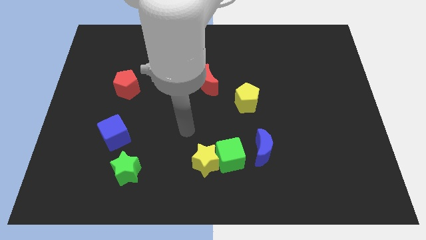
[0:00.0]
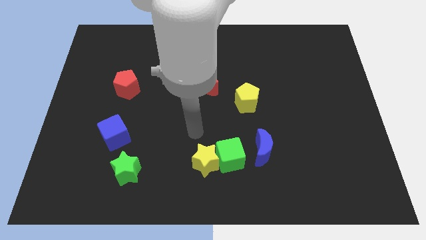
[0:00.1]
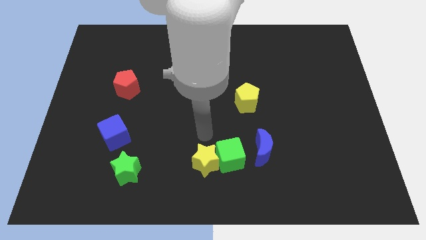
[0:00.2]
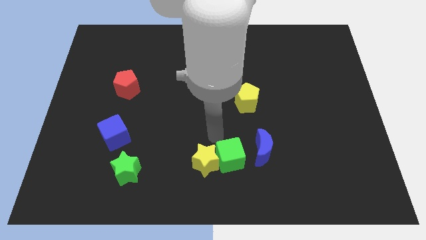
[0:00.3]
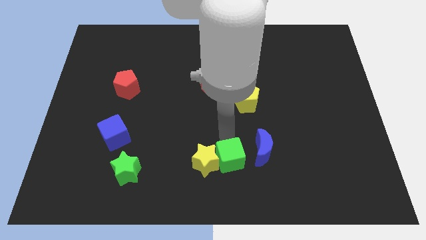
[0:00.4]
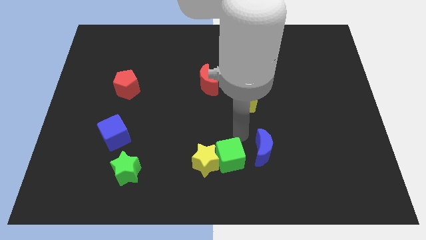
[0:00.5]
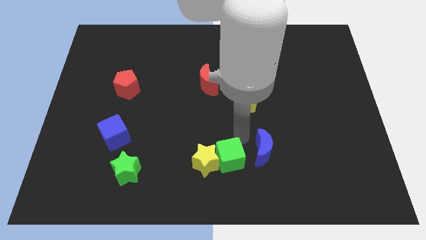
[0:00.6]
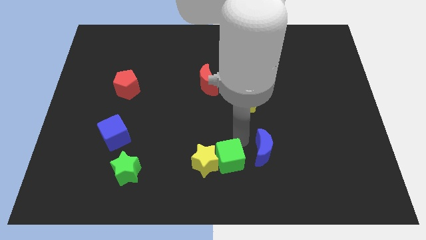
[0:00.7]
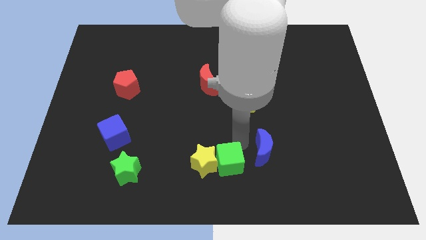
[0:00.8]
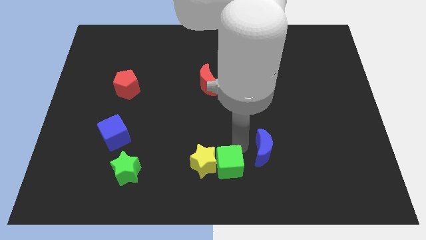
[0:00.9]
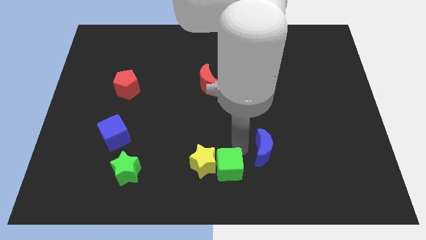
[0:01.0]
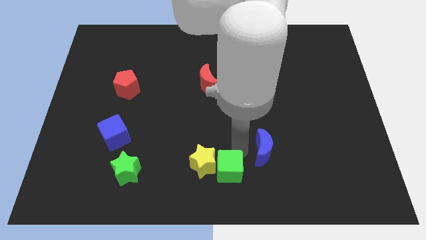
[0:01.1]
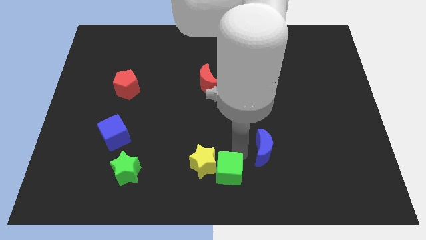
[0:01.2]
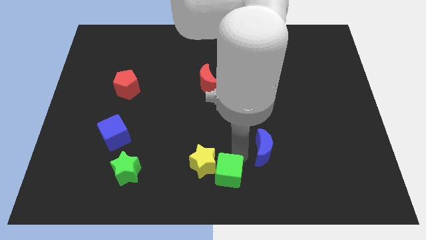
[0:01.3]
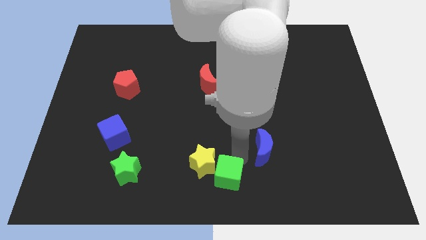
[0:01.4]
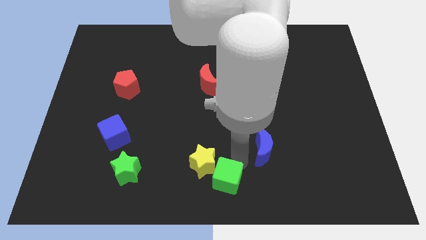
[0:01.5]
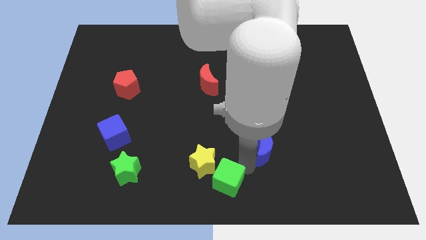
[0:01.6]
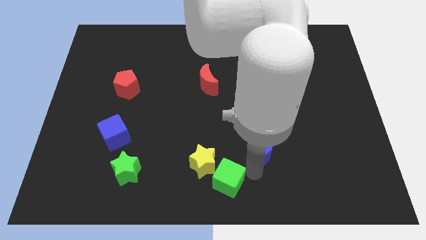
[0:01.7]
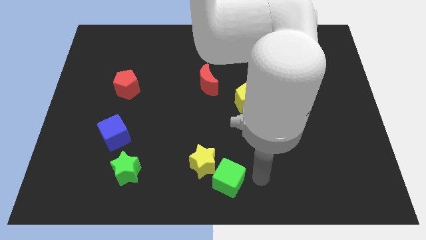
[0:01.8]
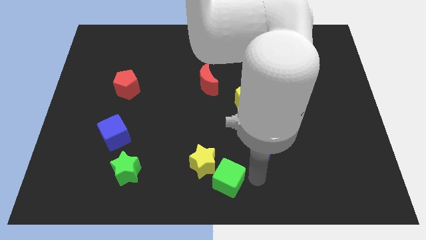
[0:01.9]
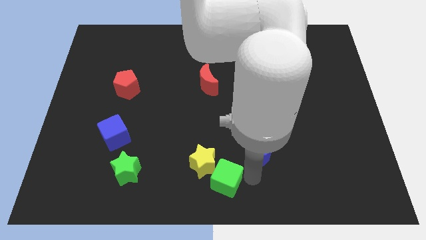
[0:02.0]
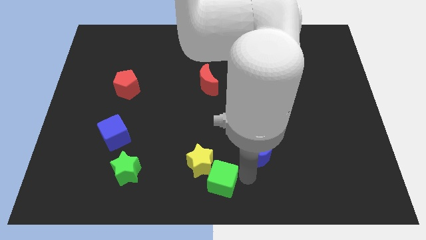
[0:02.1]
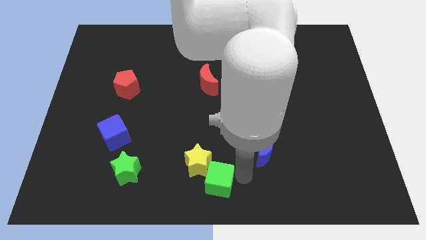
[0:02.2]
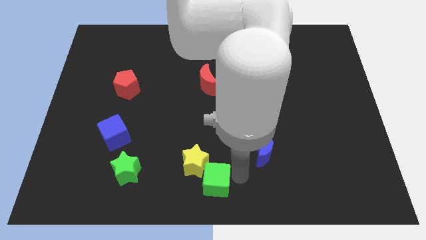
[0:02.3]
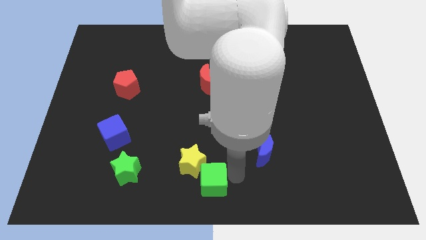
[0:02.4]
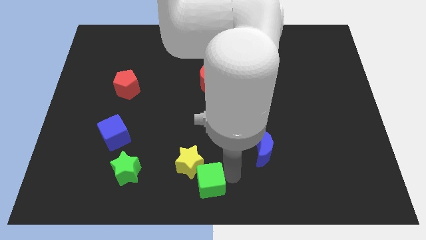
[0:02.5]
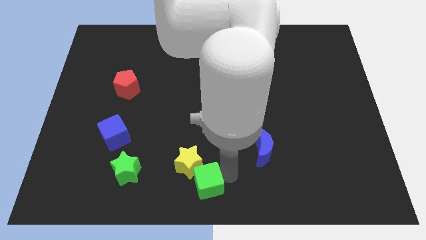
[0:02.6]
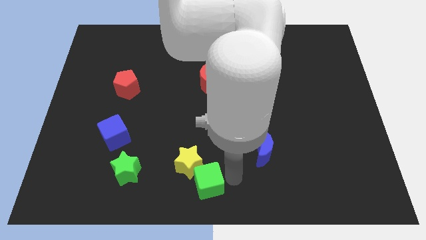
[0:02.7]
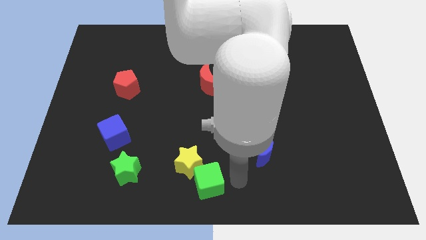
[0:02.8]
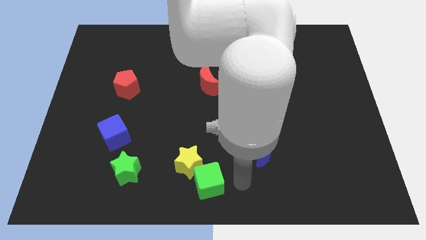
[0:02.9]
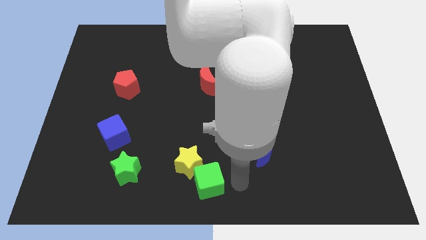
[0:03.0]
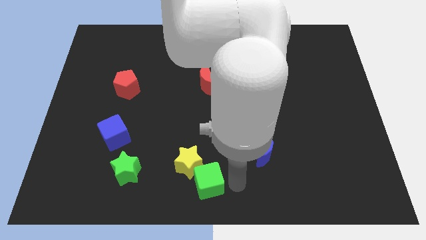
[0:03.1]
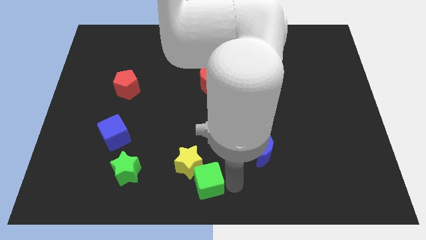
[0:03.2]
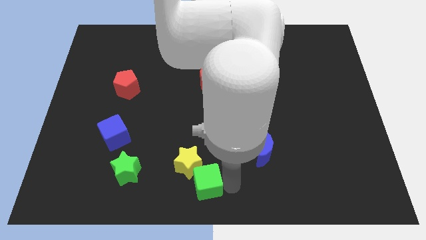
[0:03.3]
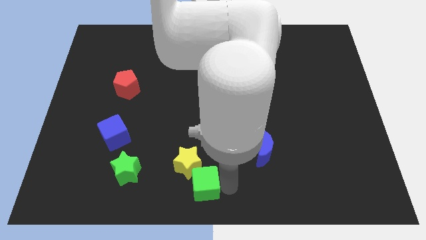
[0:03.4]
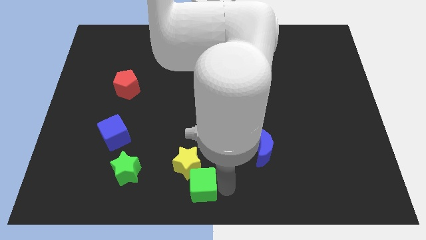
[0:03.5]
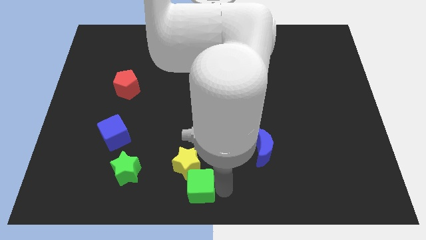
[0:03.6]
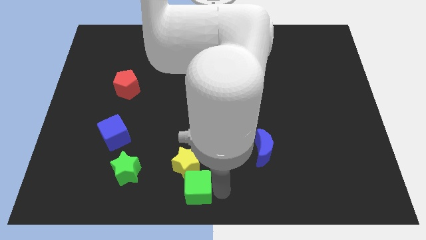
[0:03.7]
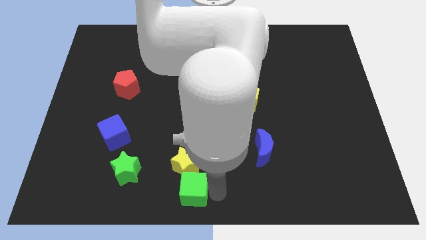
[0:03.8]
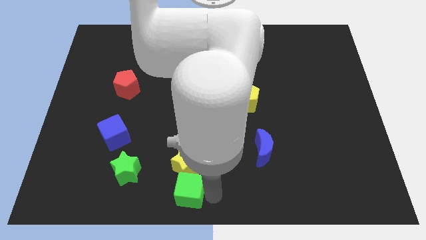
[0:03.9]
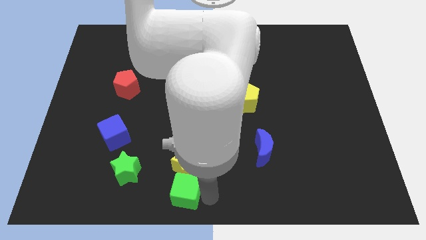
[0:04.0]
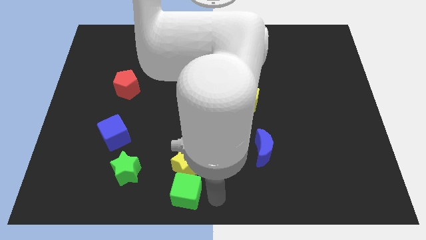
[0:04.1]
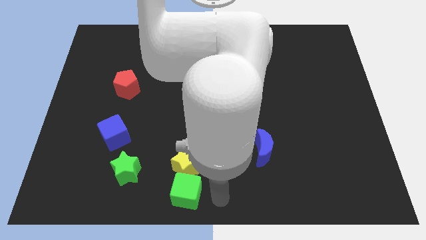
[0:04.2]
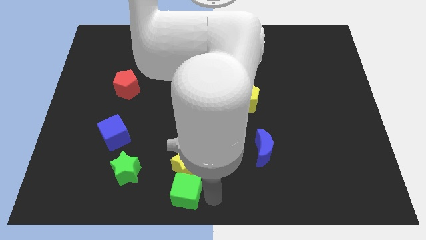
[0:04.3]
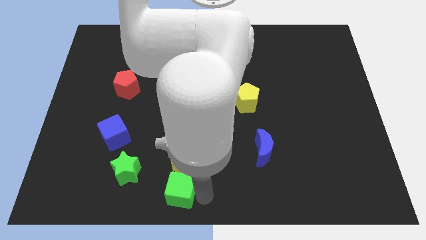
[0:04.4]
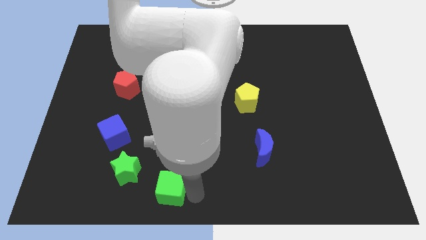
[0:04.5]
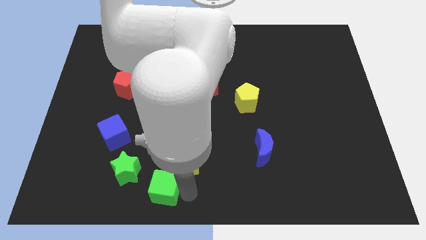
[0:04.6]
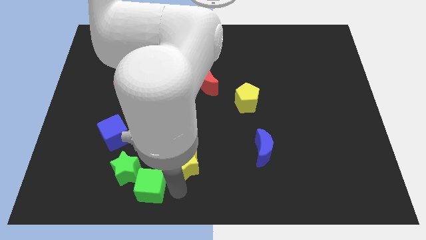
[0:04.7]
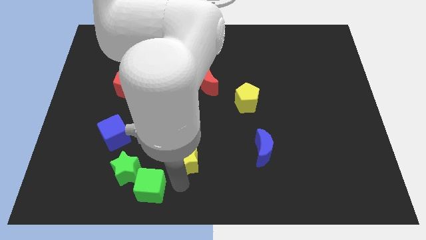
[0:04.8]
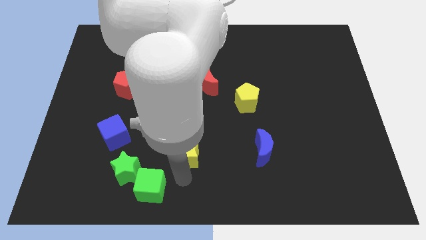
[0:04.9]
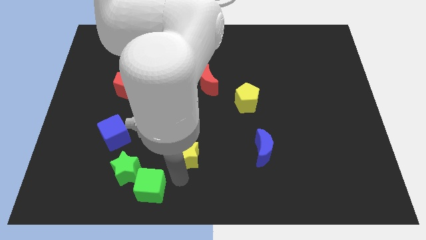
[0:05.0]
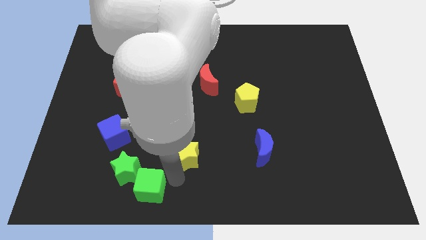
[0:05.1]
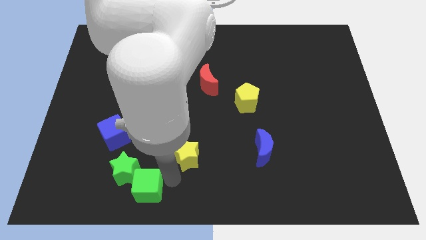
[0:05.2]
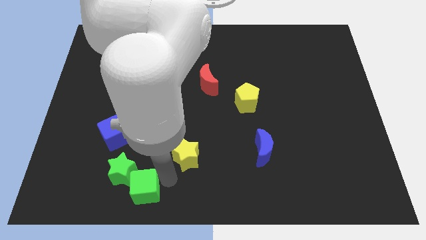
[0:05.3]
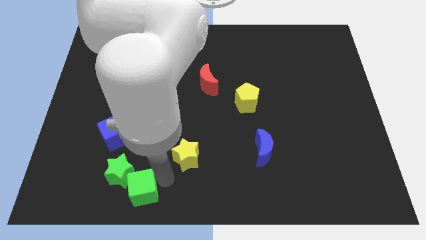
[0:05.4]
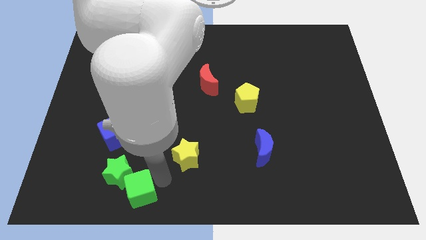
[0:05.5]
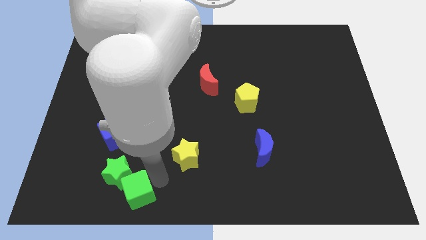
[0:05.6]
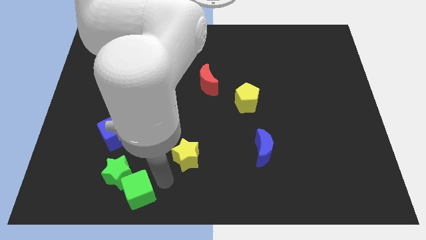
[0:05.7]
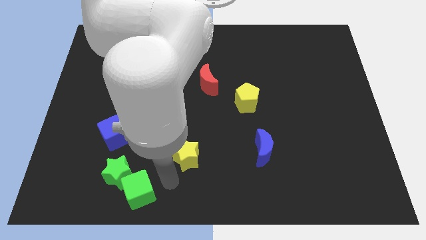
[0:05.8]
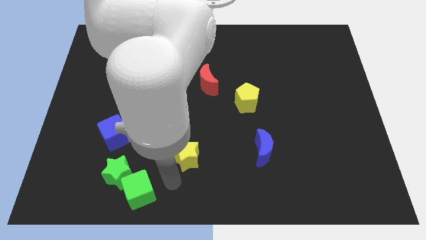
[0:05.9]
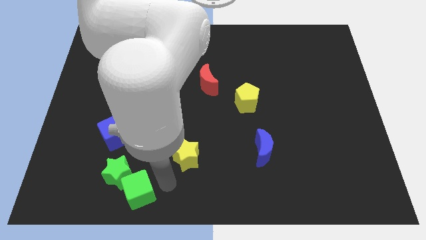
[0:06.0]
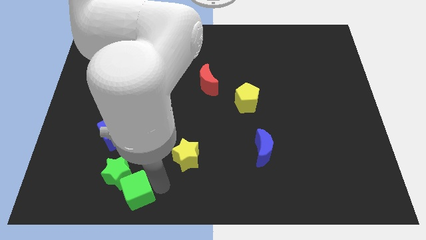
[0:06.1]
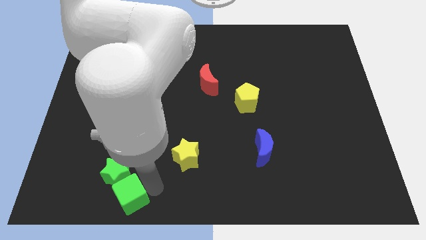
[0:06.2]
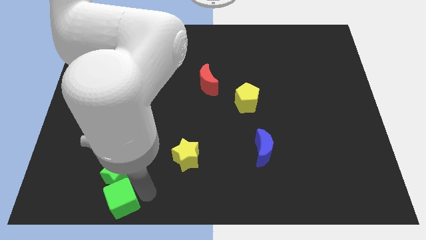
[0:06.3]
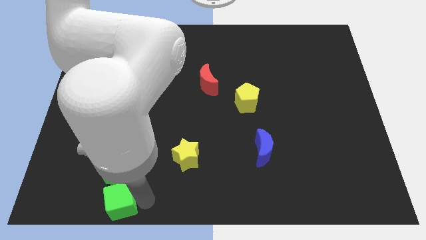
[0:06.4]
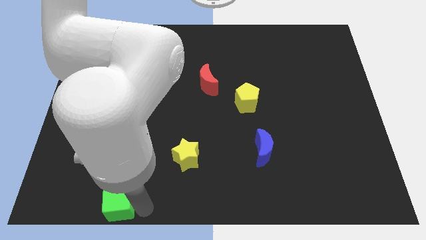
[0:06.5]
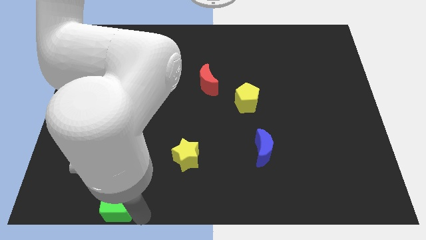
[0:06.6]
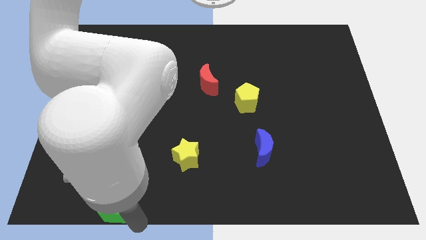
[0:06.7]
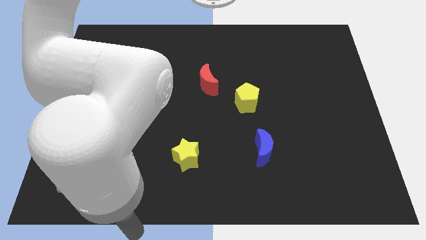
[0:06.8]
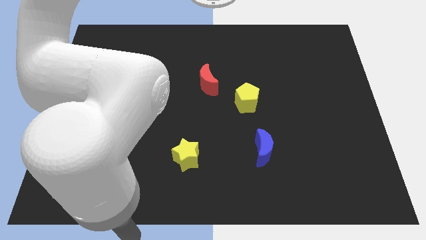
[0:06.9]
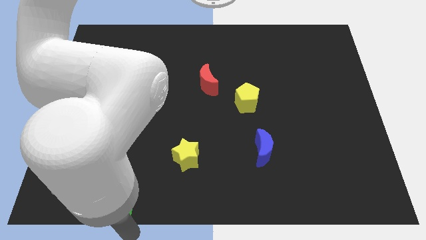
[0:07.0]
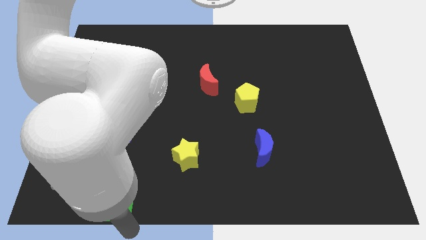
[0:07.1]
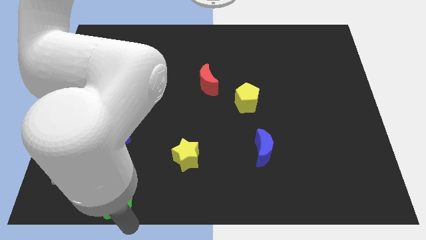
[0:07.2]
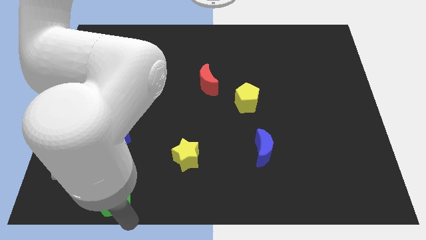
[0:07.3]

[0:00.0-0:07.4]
move the green cube to the bottom side of the blue cube
